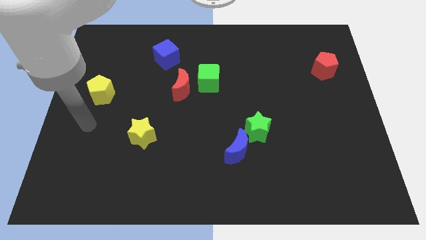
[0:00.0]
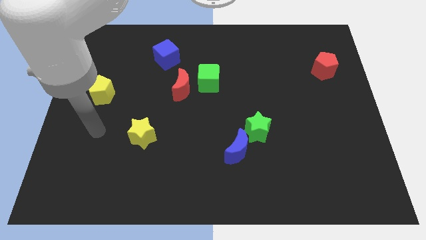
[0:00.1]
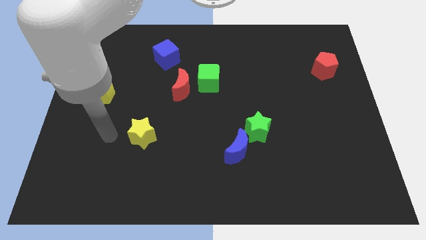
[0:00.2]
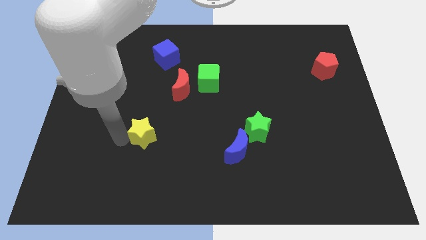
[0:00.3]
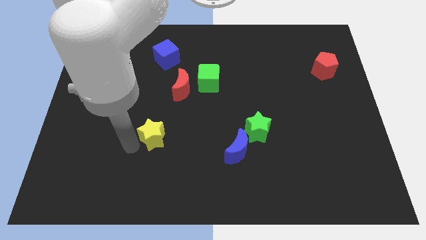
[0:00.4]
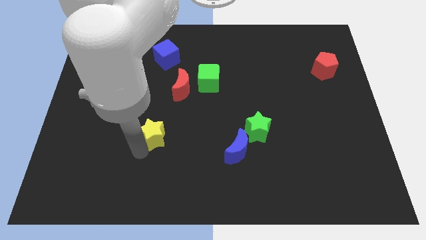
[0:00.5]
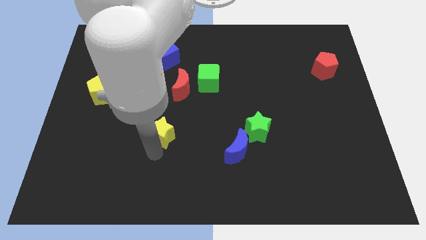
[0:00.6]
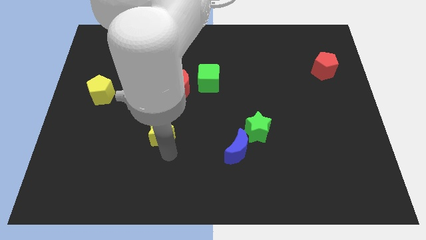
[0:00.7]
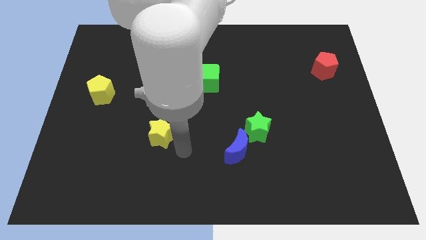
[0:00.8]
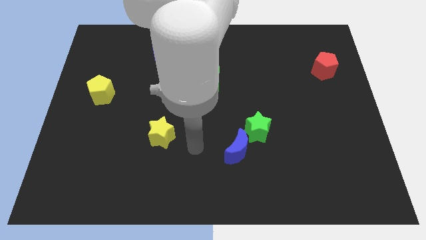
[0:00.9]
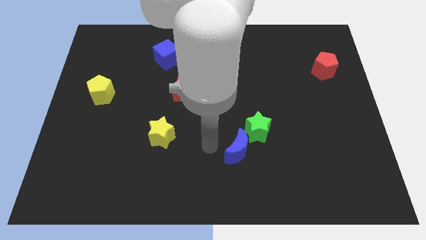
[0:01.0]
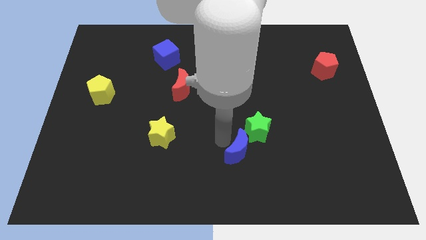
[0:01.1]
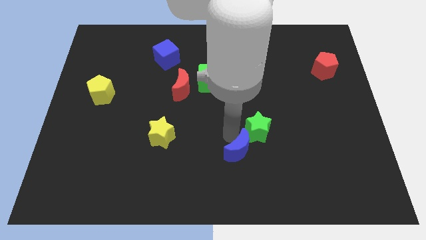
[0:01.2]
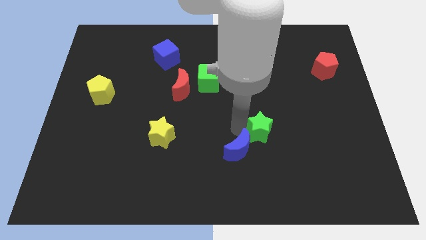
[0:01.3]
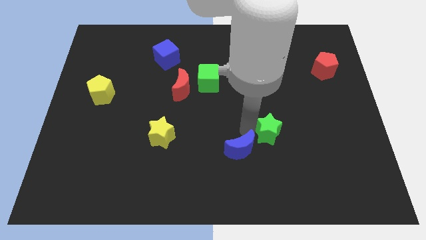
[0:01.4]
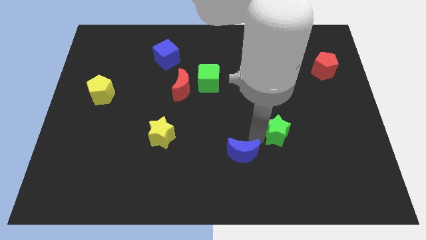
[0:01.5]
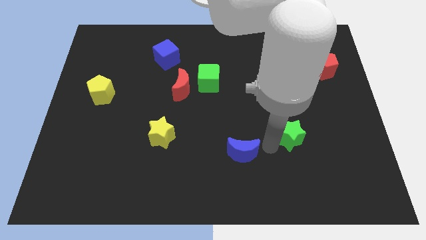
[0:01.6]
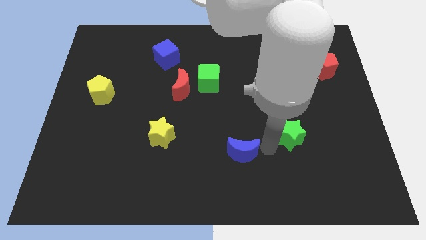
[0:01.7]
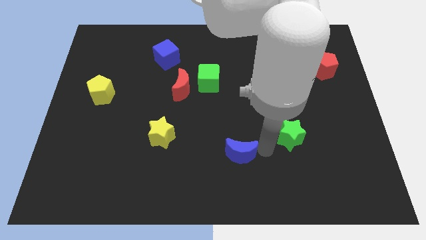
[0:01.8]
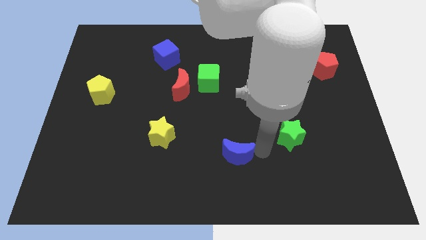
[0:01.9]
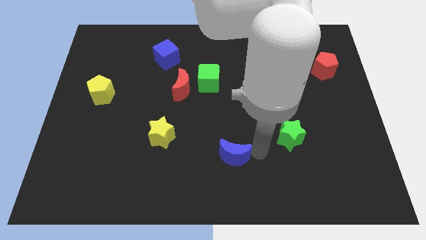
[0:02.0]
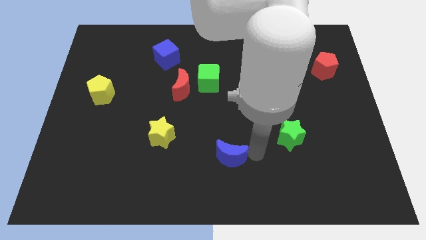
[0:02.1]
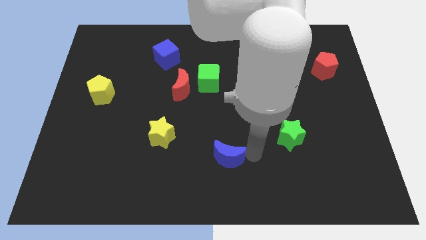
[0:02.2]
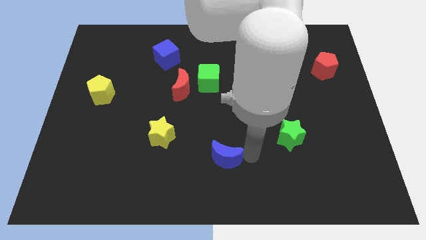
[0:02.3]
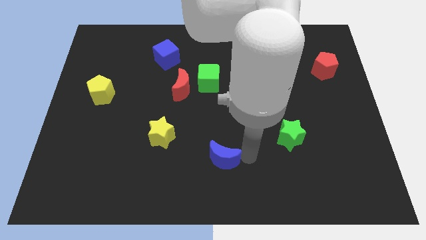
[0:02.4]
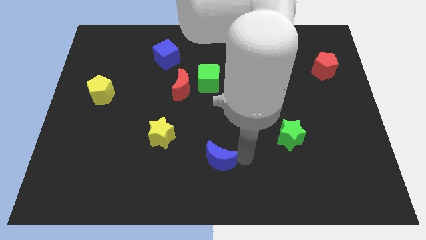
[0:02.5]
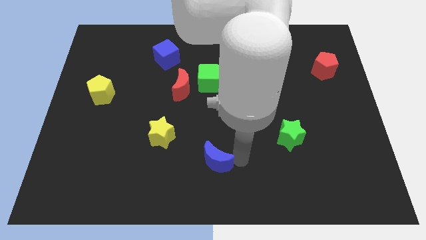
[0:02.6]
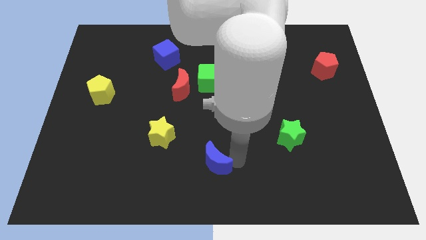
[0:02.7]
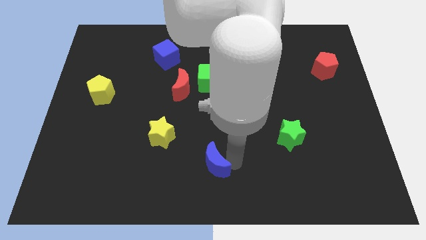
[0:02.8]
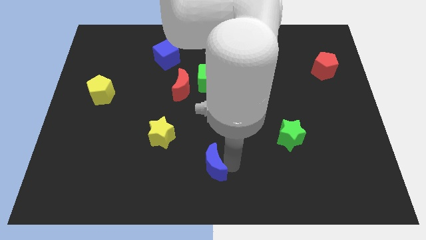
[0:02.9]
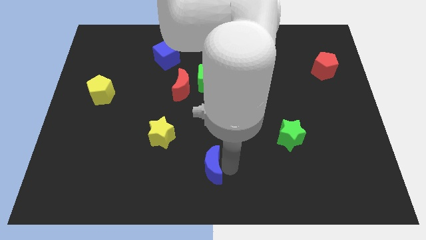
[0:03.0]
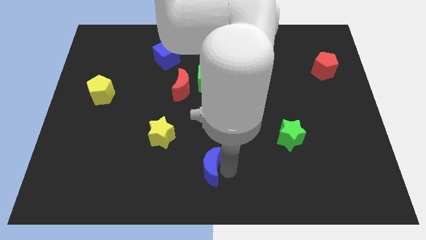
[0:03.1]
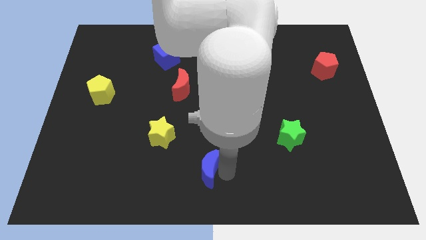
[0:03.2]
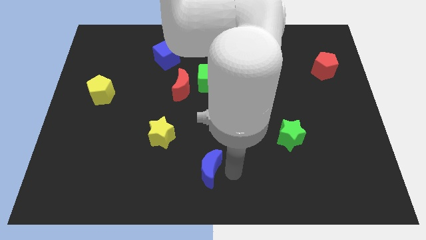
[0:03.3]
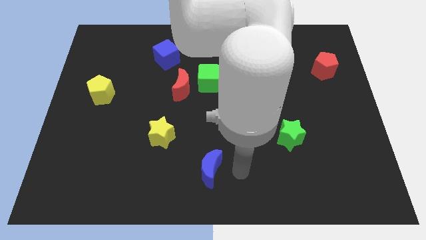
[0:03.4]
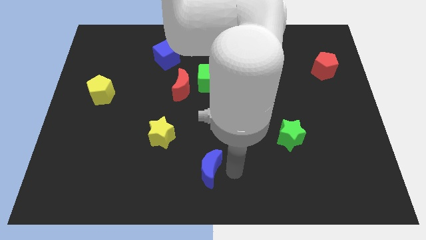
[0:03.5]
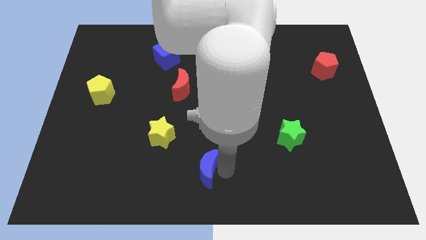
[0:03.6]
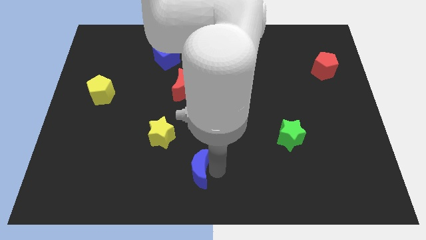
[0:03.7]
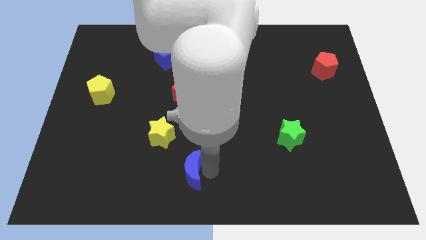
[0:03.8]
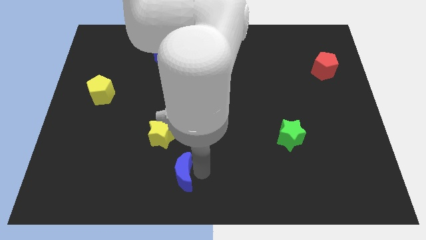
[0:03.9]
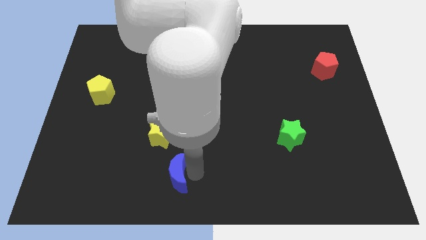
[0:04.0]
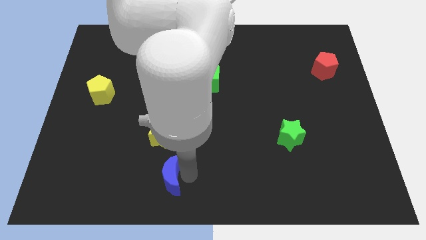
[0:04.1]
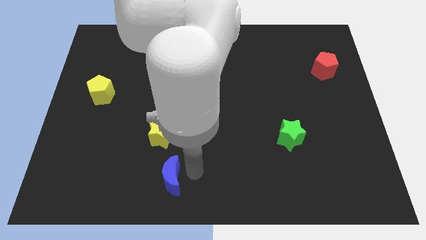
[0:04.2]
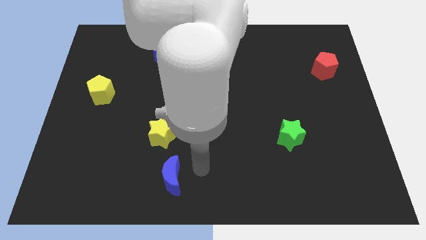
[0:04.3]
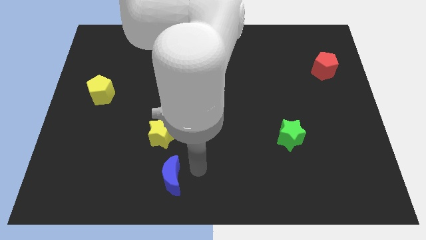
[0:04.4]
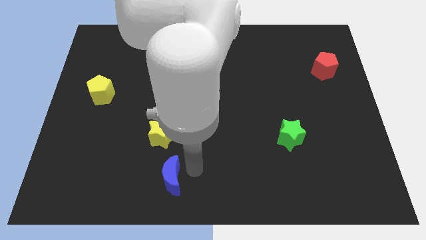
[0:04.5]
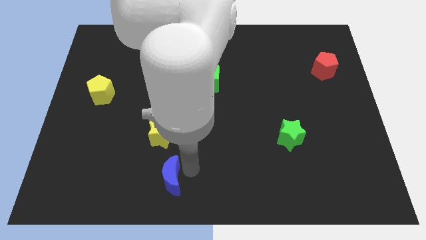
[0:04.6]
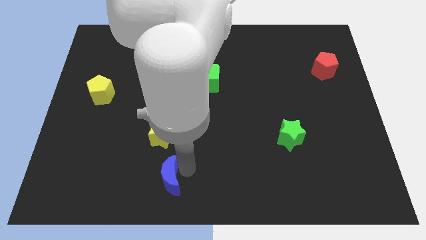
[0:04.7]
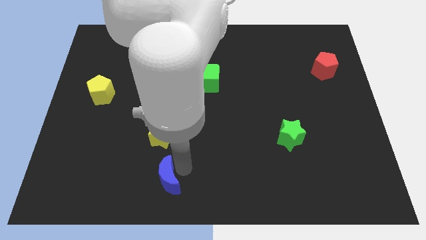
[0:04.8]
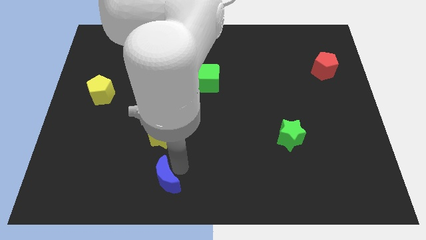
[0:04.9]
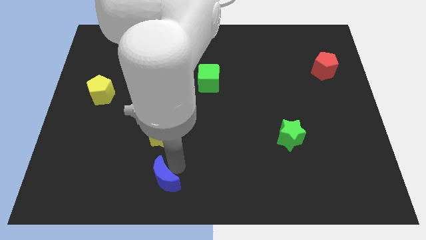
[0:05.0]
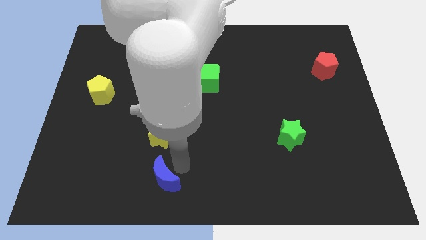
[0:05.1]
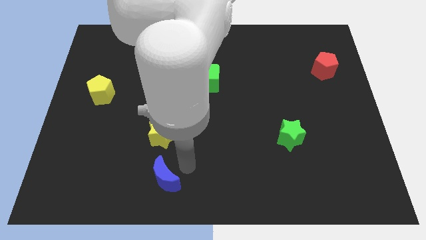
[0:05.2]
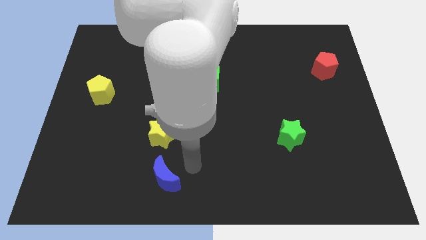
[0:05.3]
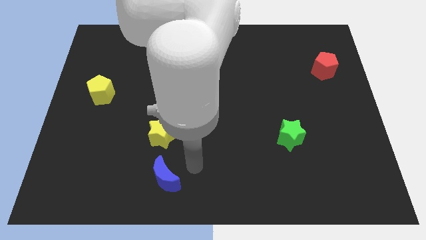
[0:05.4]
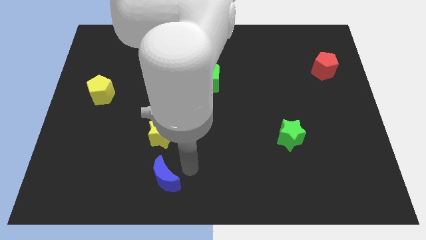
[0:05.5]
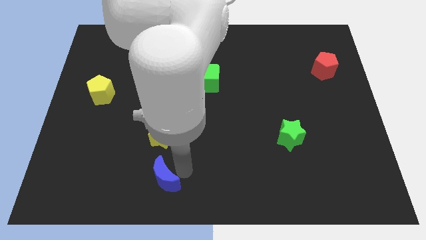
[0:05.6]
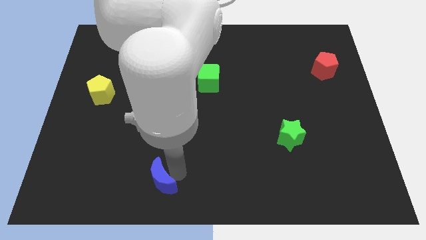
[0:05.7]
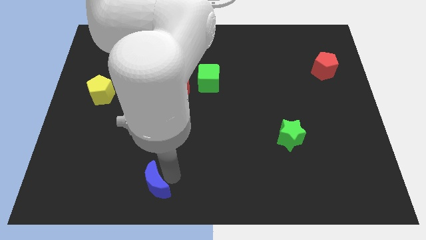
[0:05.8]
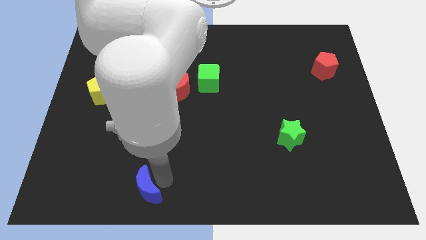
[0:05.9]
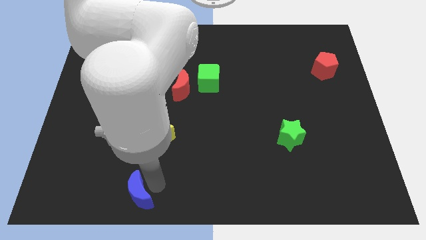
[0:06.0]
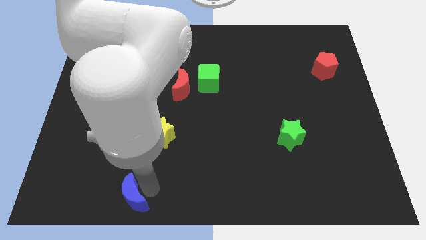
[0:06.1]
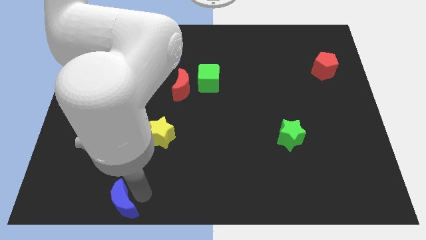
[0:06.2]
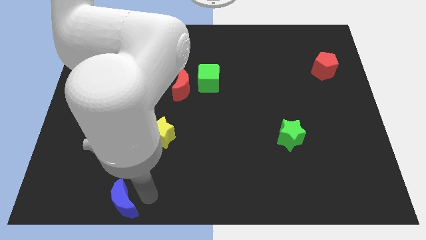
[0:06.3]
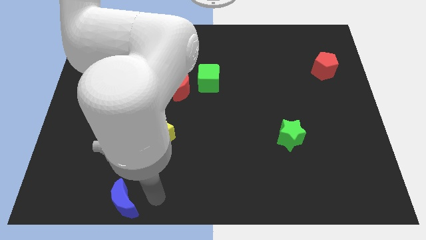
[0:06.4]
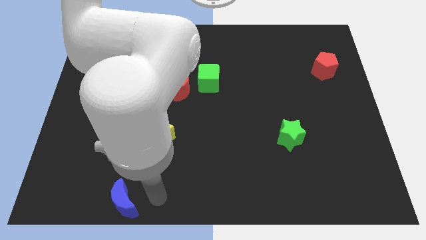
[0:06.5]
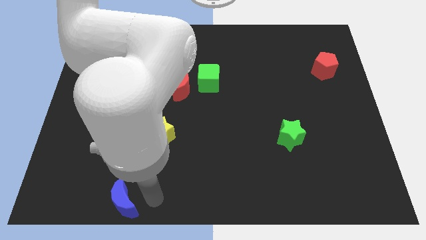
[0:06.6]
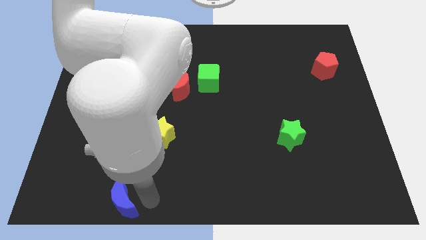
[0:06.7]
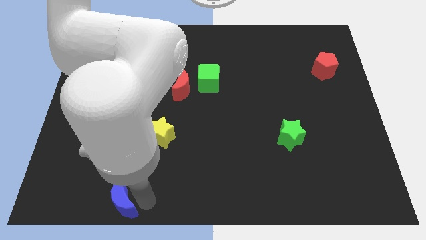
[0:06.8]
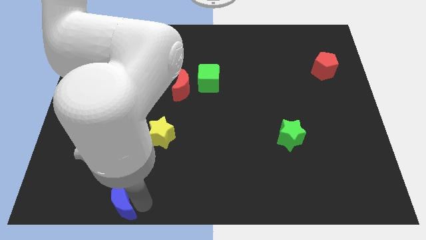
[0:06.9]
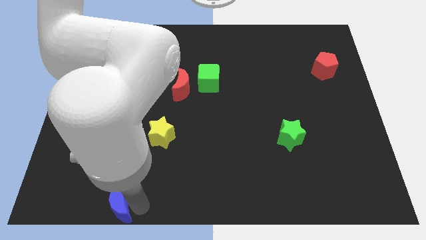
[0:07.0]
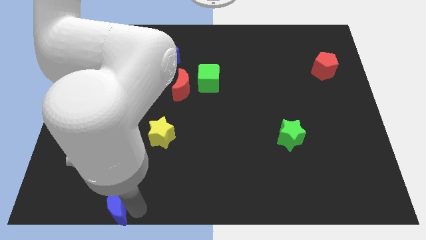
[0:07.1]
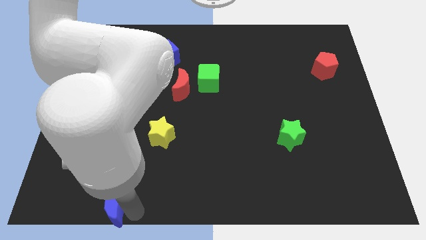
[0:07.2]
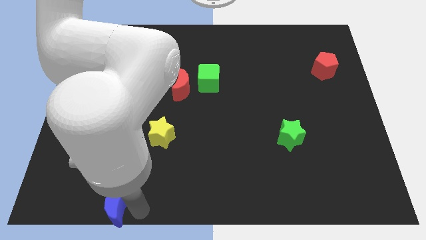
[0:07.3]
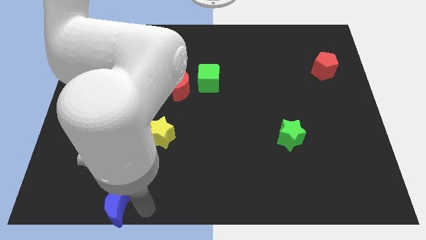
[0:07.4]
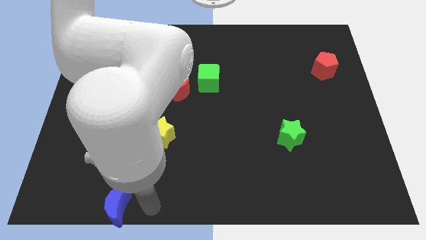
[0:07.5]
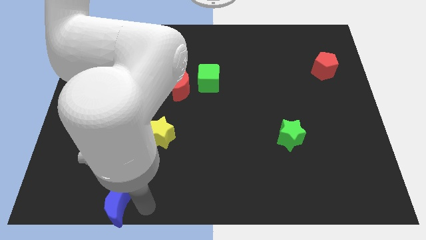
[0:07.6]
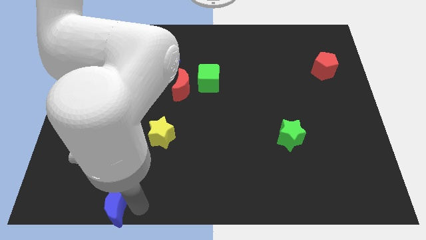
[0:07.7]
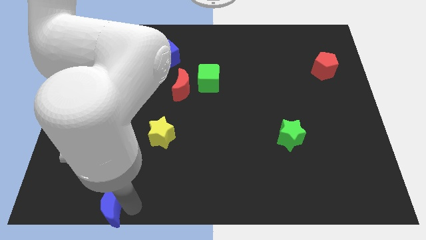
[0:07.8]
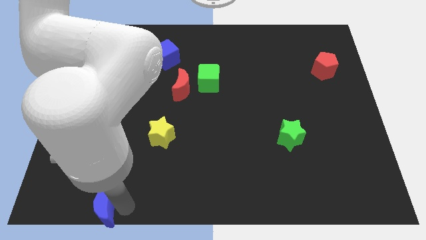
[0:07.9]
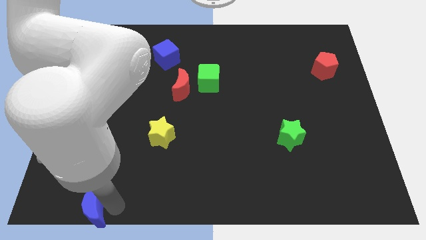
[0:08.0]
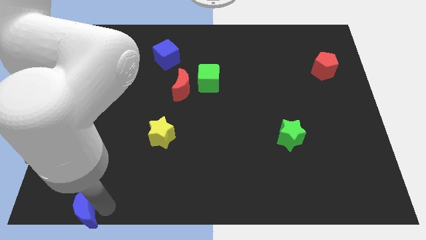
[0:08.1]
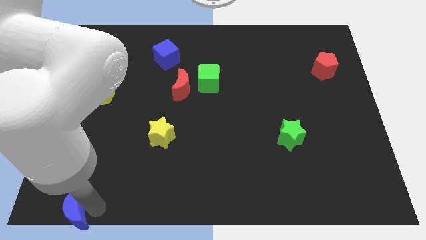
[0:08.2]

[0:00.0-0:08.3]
move the blue moon to the bottom left corner
